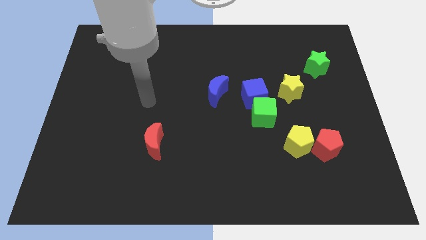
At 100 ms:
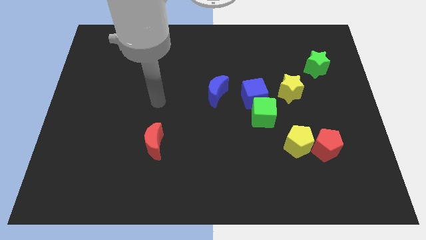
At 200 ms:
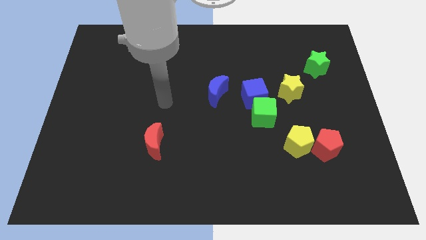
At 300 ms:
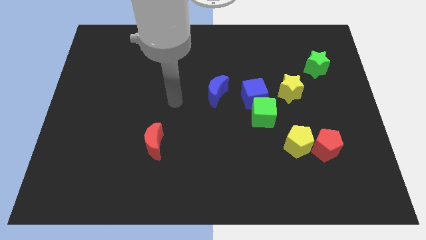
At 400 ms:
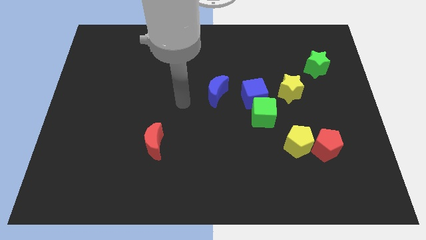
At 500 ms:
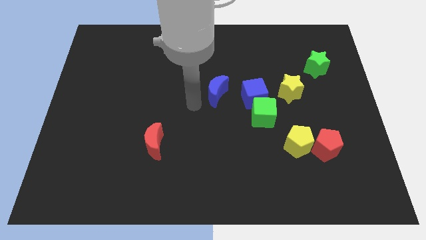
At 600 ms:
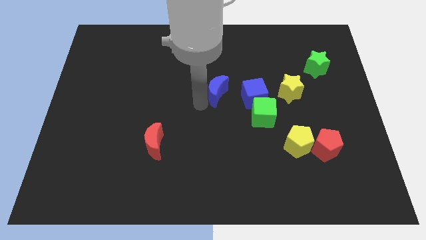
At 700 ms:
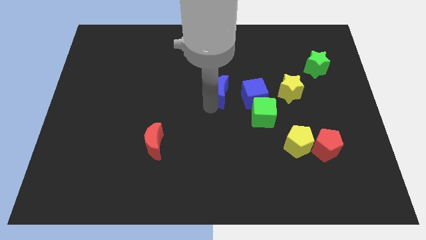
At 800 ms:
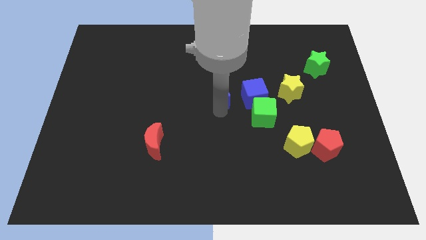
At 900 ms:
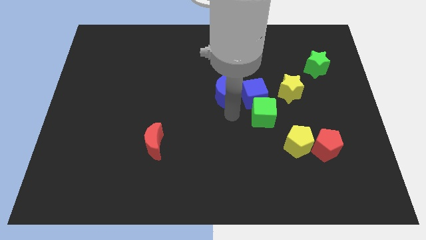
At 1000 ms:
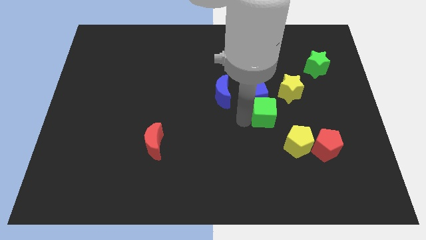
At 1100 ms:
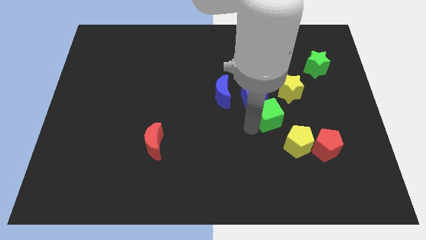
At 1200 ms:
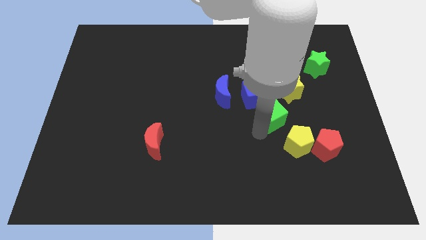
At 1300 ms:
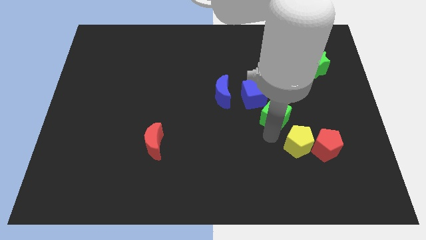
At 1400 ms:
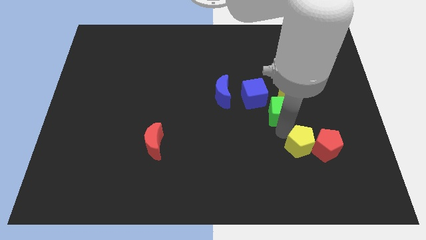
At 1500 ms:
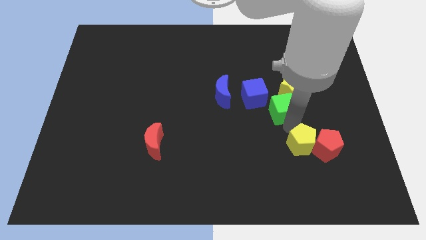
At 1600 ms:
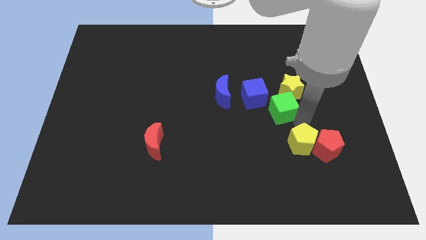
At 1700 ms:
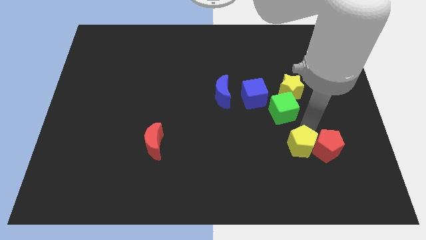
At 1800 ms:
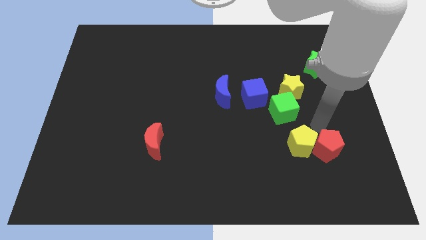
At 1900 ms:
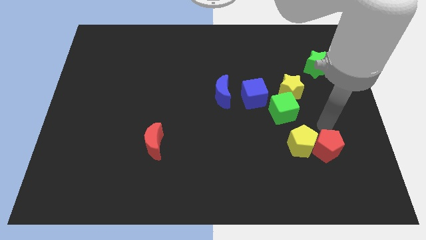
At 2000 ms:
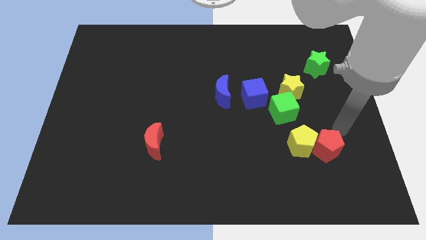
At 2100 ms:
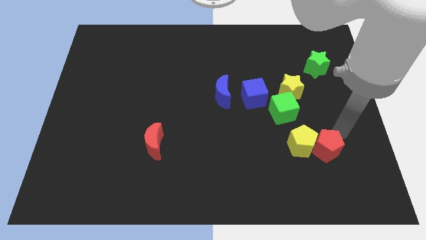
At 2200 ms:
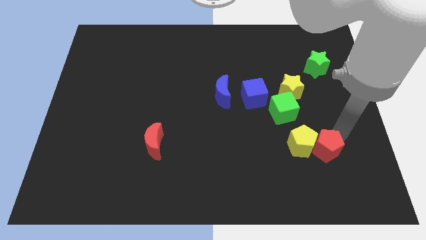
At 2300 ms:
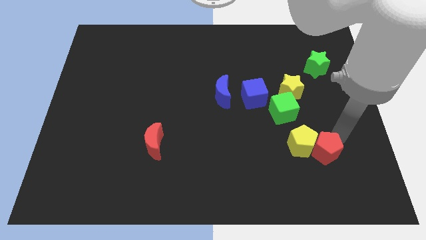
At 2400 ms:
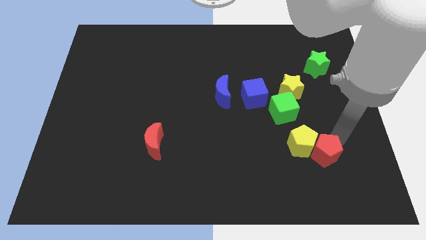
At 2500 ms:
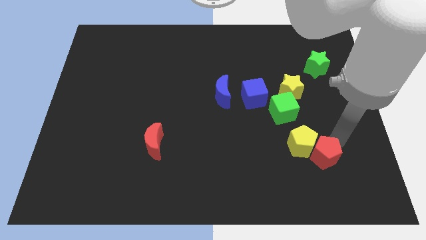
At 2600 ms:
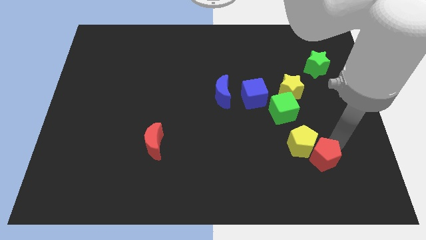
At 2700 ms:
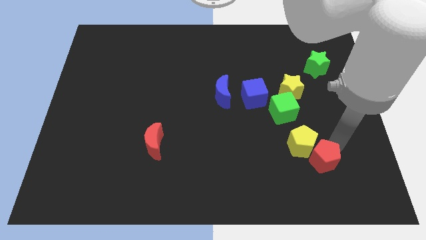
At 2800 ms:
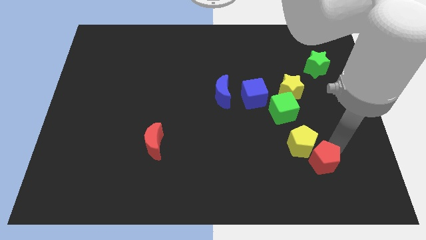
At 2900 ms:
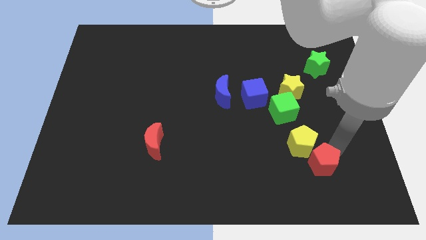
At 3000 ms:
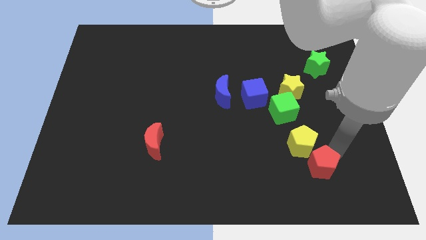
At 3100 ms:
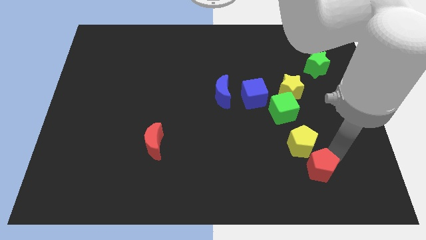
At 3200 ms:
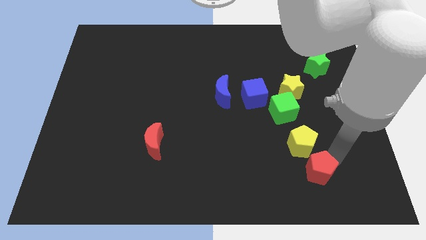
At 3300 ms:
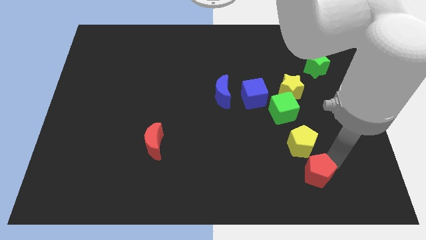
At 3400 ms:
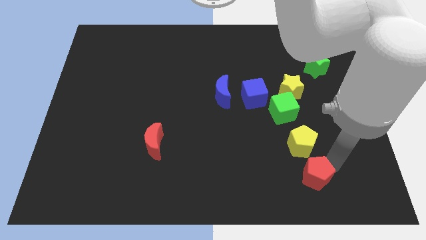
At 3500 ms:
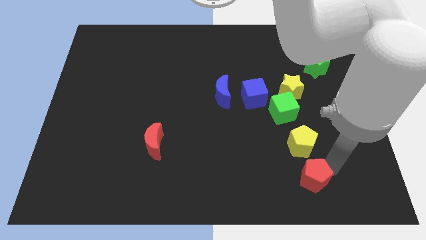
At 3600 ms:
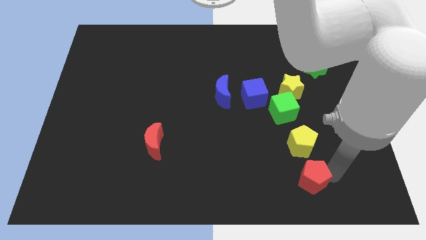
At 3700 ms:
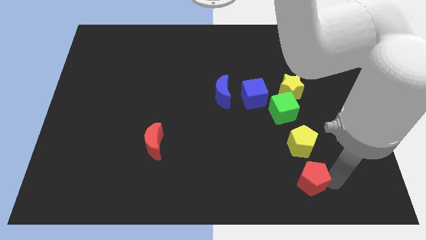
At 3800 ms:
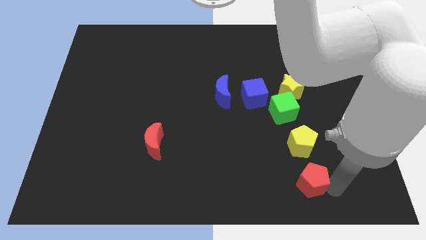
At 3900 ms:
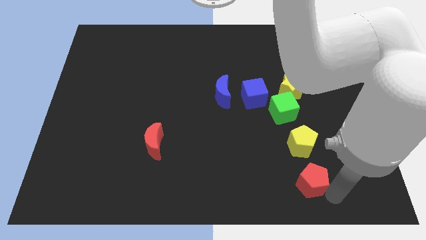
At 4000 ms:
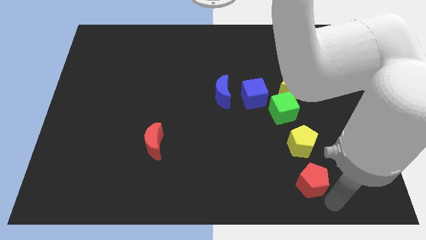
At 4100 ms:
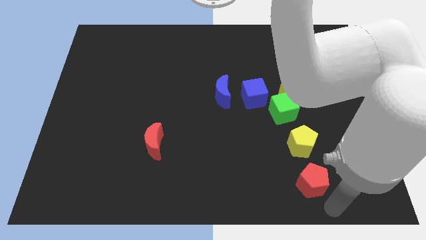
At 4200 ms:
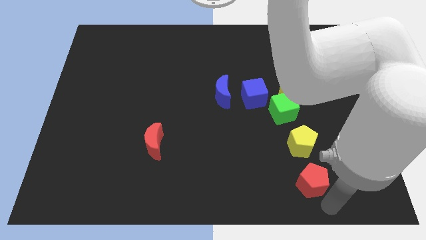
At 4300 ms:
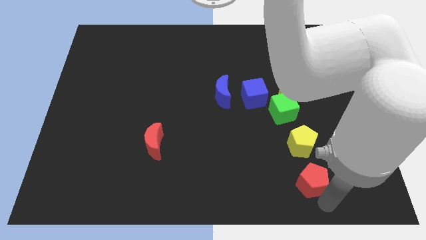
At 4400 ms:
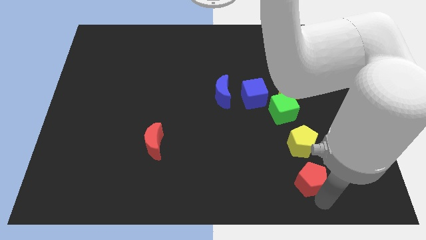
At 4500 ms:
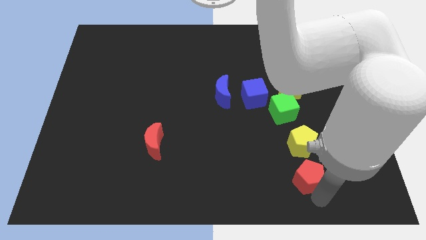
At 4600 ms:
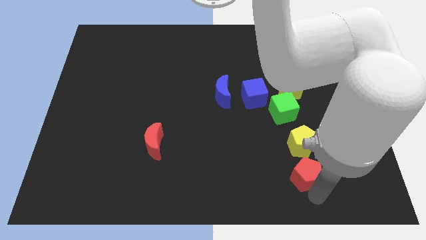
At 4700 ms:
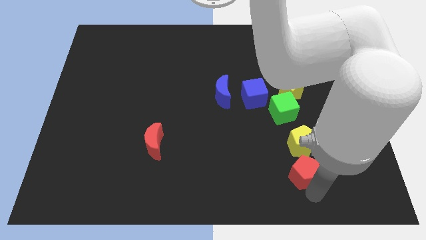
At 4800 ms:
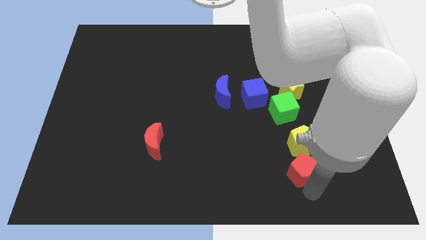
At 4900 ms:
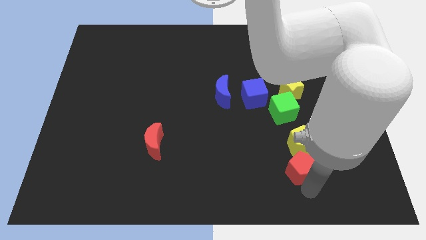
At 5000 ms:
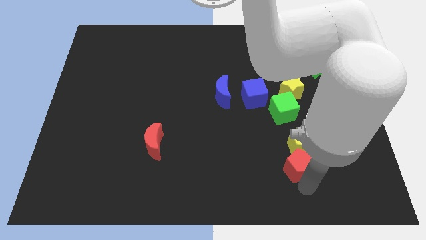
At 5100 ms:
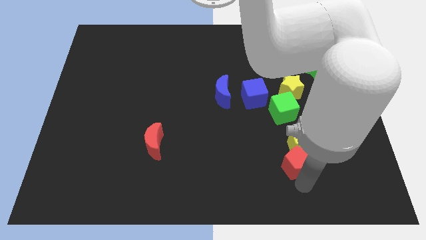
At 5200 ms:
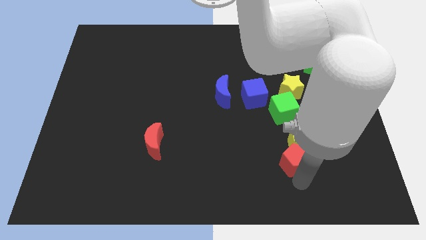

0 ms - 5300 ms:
slightly move the red pentagon left

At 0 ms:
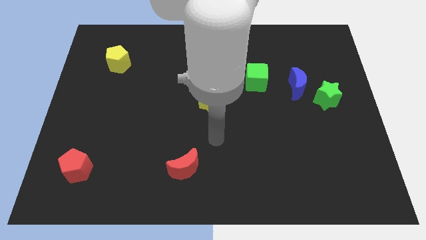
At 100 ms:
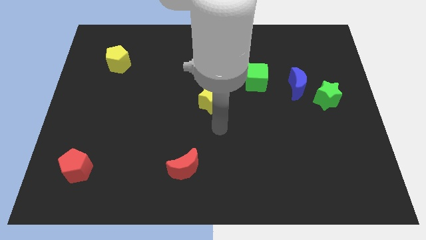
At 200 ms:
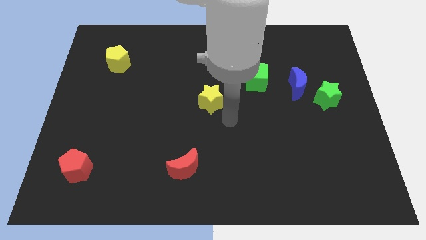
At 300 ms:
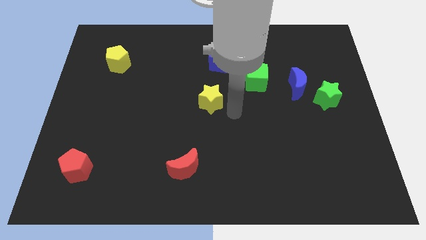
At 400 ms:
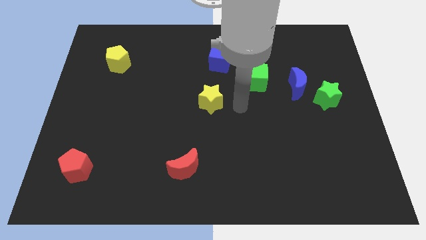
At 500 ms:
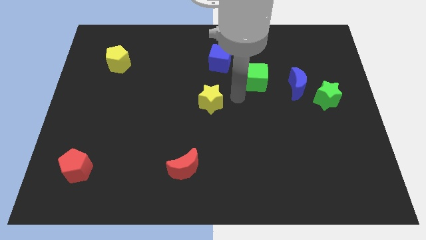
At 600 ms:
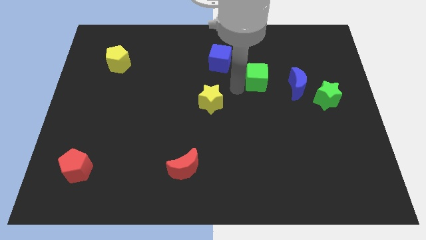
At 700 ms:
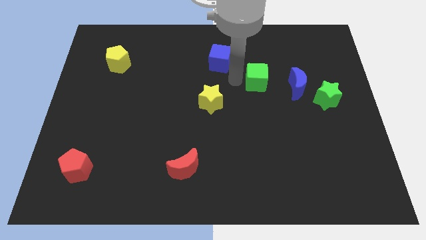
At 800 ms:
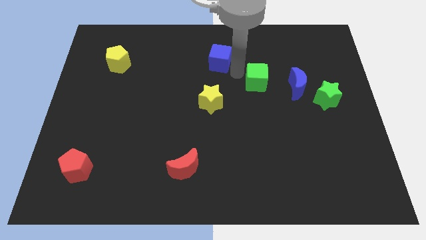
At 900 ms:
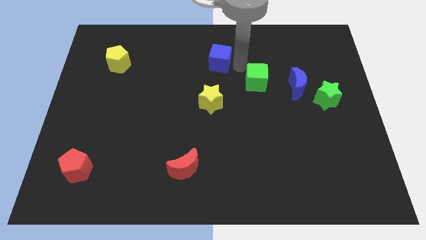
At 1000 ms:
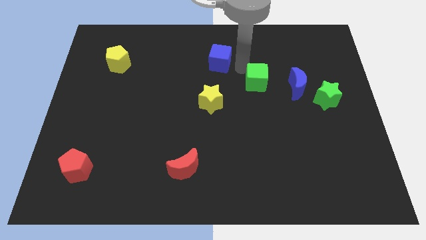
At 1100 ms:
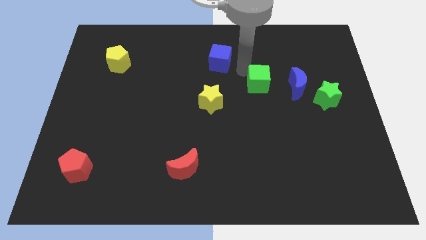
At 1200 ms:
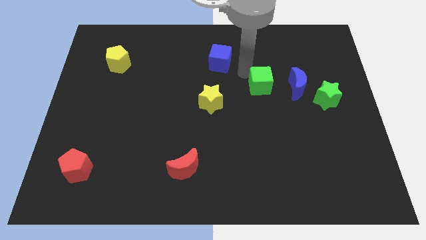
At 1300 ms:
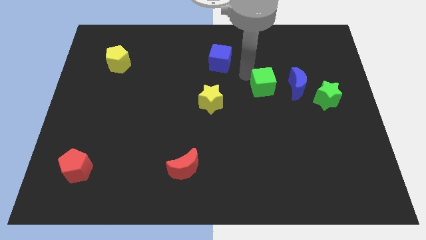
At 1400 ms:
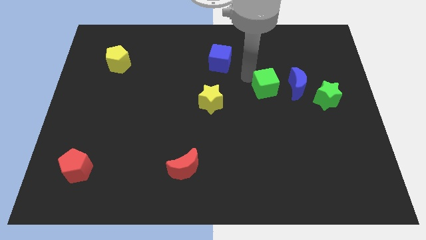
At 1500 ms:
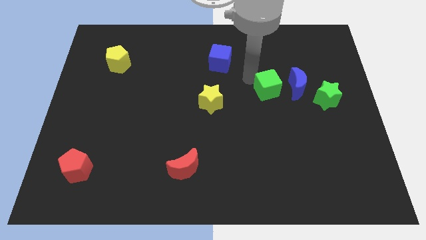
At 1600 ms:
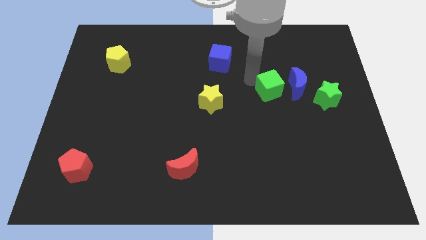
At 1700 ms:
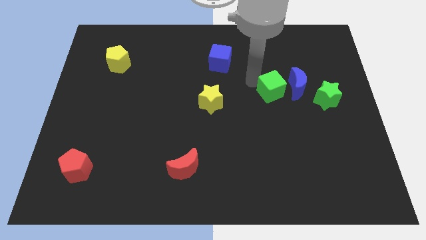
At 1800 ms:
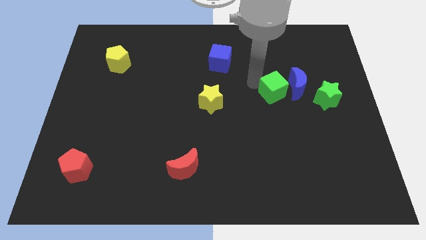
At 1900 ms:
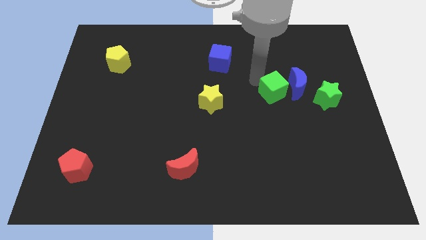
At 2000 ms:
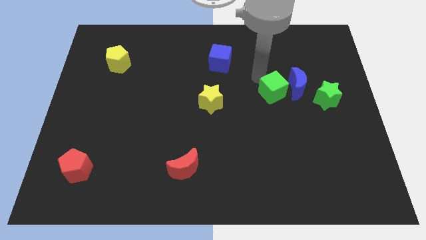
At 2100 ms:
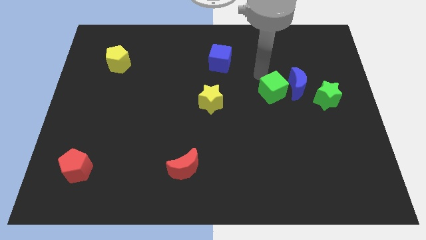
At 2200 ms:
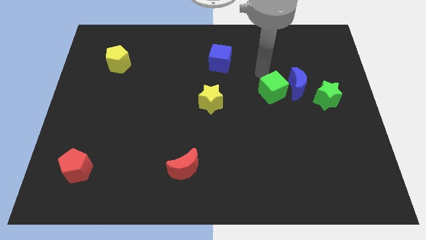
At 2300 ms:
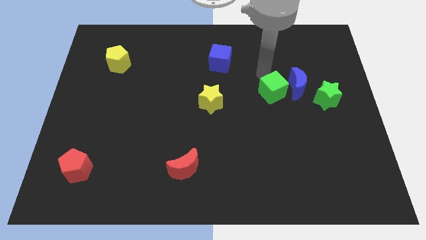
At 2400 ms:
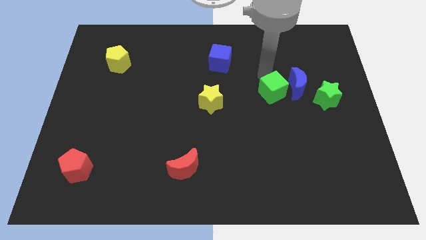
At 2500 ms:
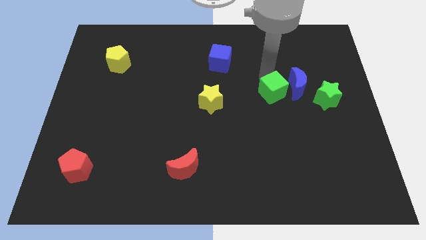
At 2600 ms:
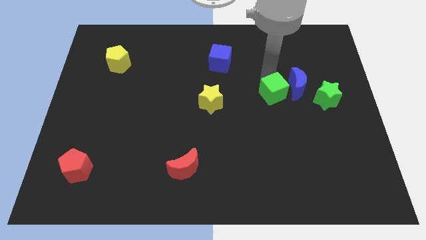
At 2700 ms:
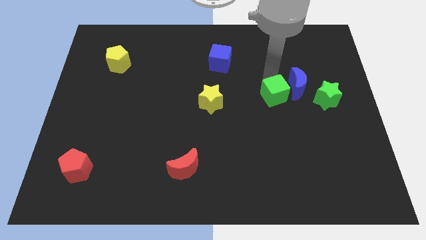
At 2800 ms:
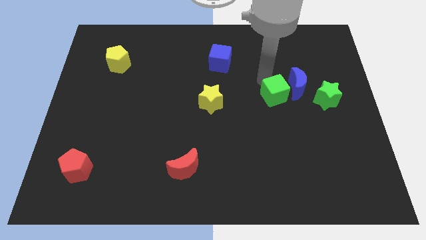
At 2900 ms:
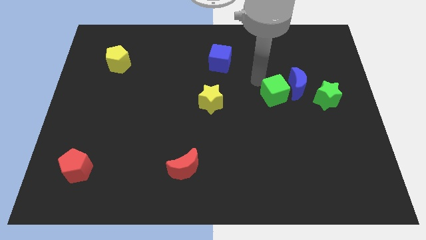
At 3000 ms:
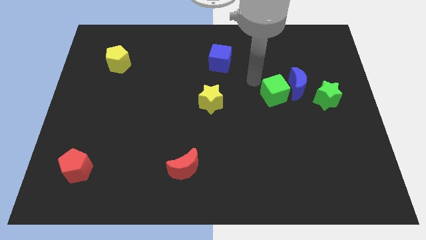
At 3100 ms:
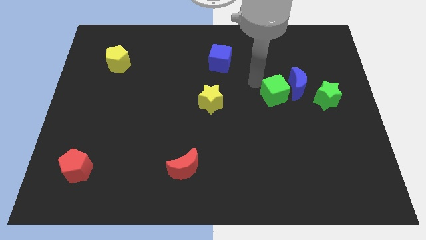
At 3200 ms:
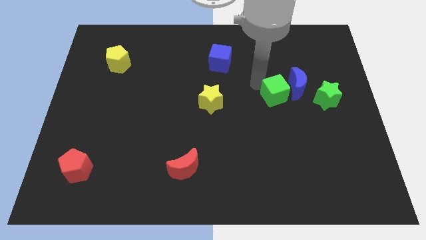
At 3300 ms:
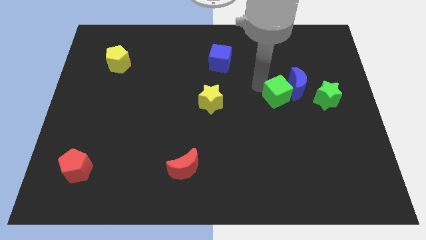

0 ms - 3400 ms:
move the green cube down and right diagonally slightly
